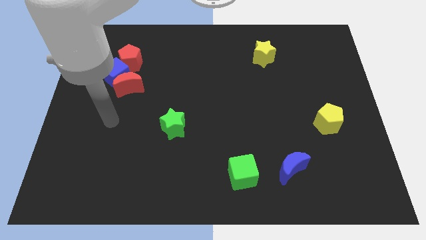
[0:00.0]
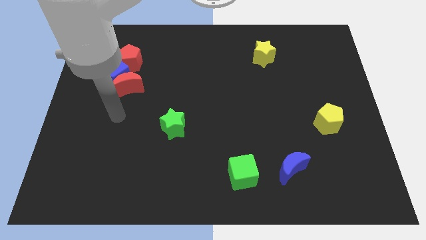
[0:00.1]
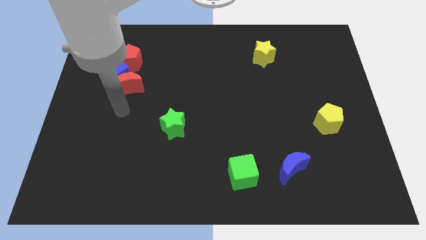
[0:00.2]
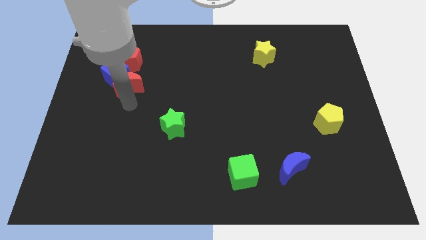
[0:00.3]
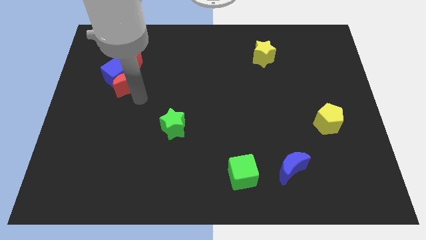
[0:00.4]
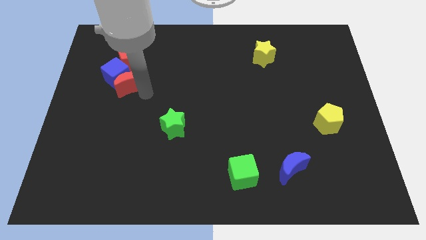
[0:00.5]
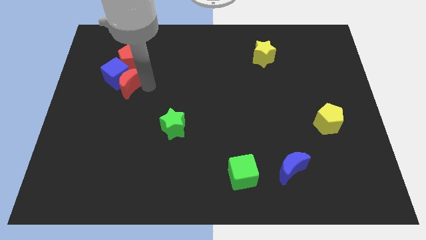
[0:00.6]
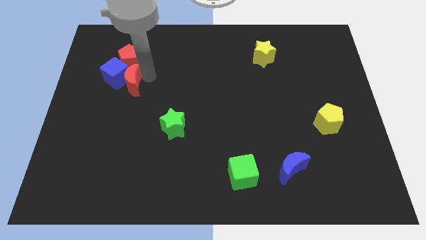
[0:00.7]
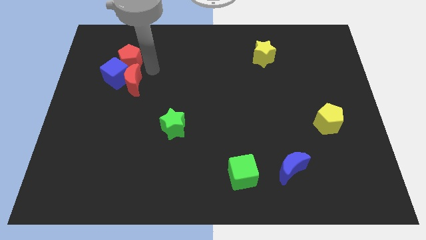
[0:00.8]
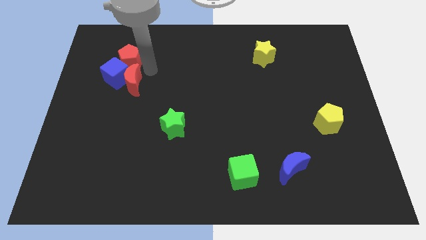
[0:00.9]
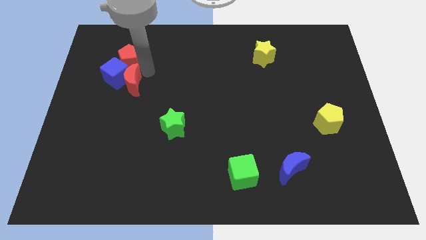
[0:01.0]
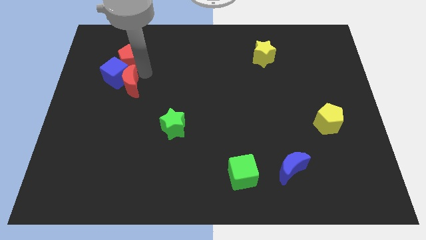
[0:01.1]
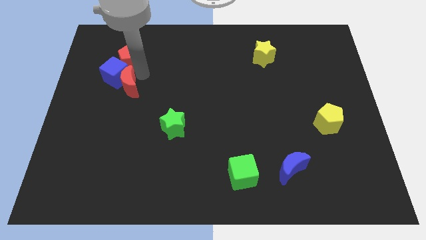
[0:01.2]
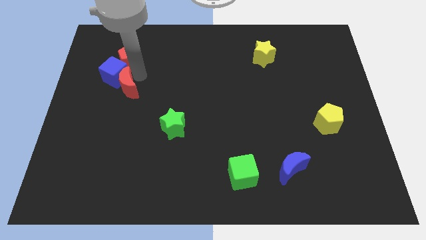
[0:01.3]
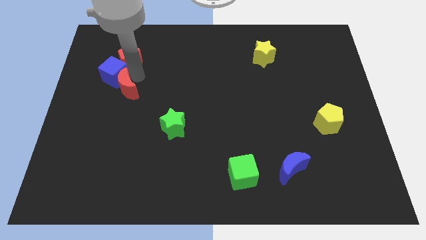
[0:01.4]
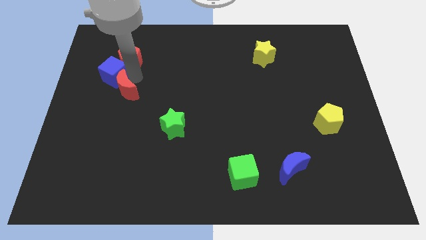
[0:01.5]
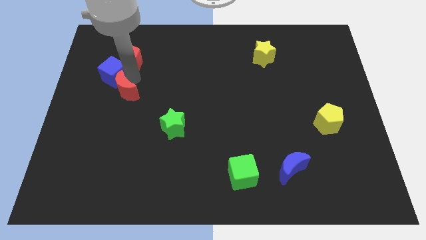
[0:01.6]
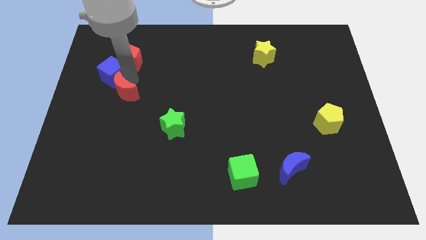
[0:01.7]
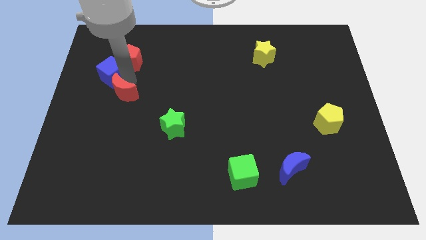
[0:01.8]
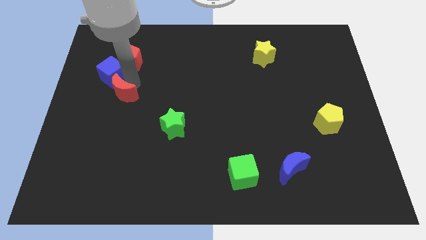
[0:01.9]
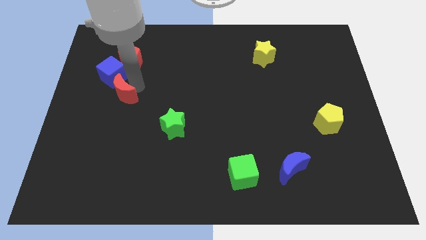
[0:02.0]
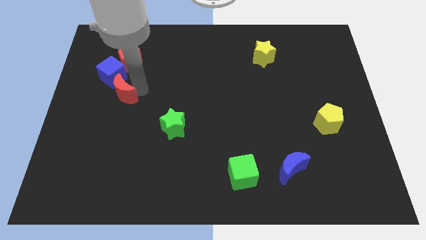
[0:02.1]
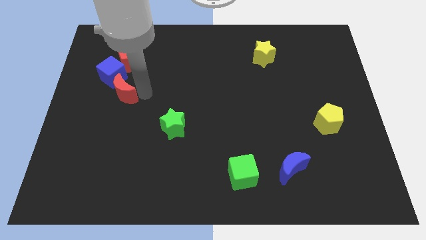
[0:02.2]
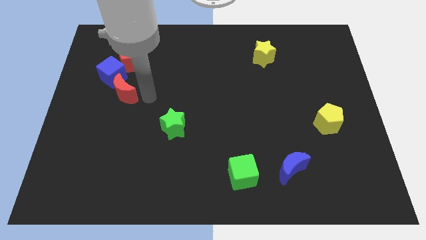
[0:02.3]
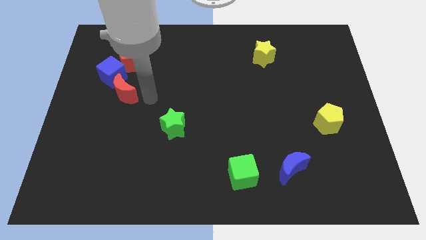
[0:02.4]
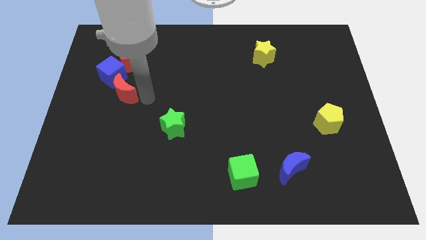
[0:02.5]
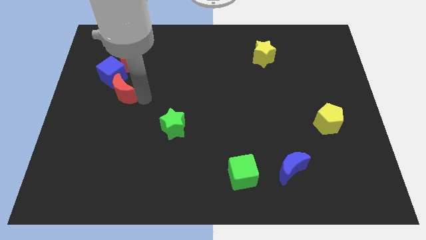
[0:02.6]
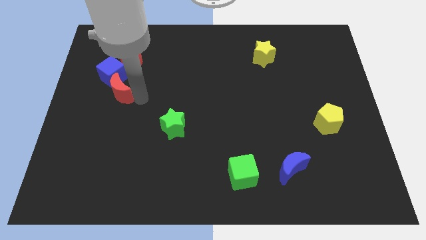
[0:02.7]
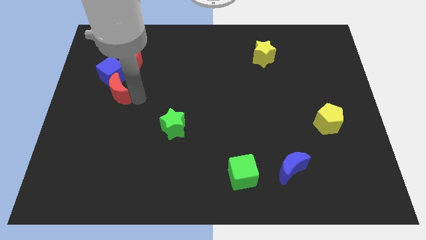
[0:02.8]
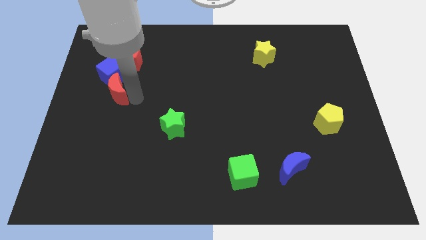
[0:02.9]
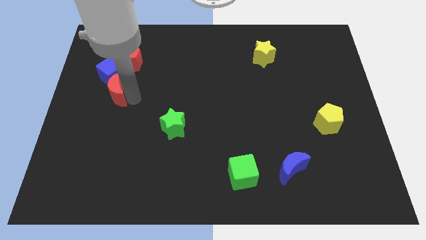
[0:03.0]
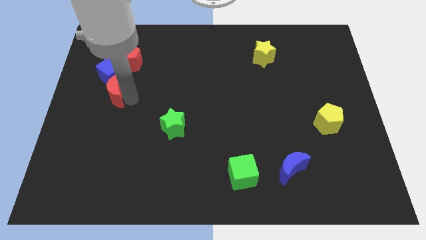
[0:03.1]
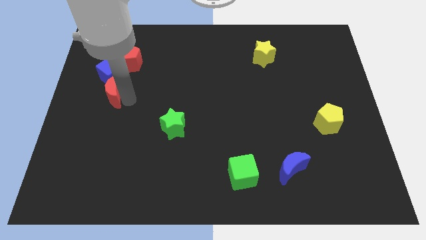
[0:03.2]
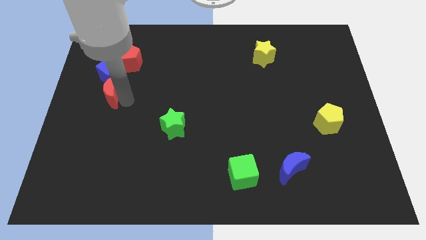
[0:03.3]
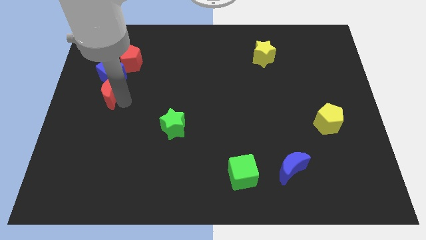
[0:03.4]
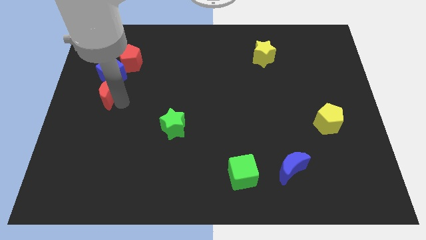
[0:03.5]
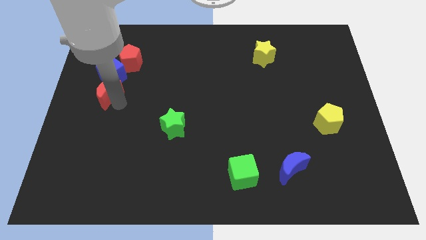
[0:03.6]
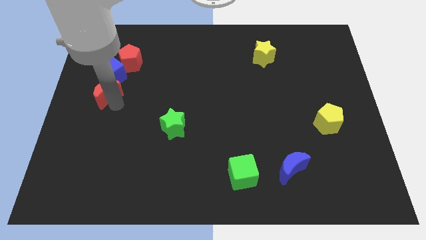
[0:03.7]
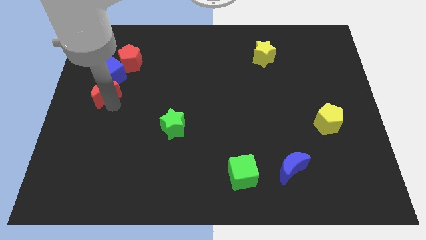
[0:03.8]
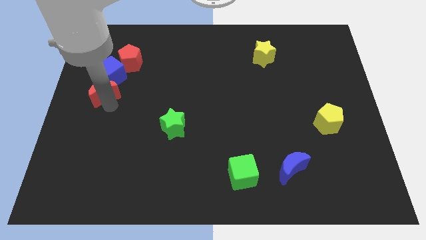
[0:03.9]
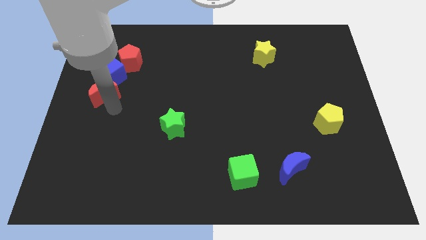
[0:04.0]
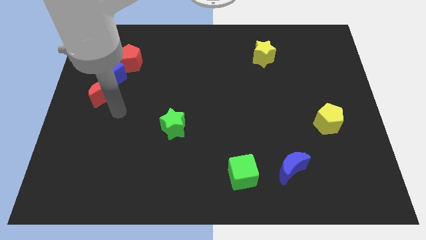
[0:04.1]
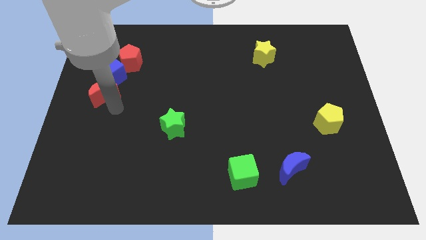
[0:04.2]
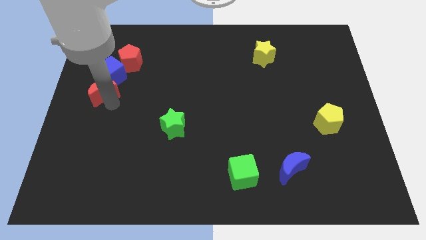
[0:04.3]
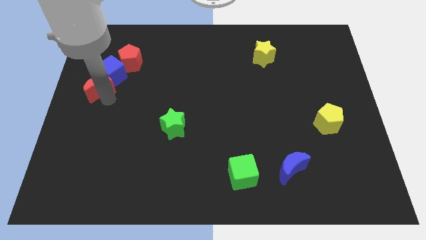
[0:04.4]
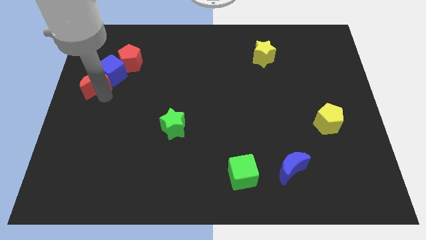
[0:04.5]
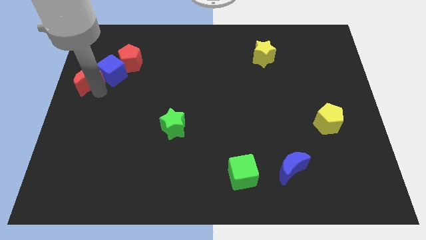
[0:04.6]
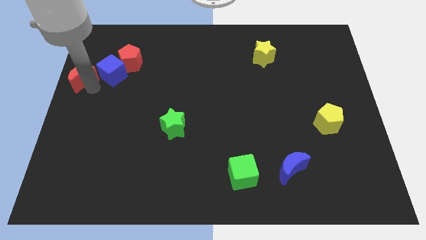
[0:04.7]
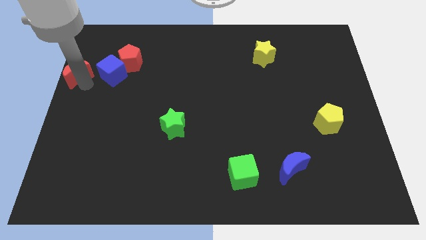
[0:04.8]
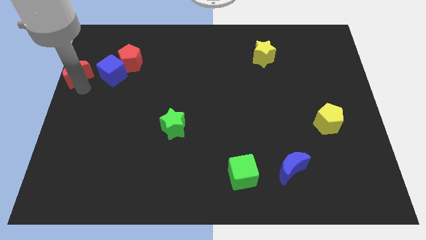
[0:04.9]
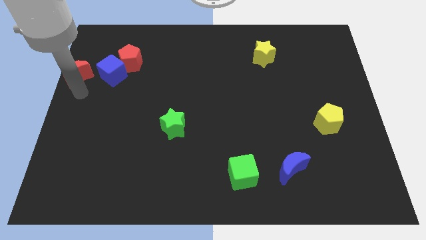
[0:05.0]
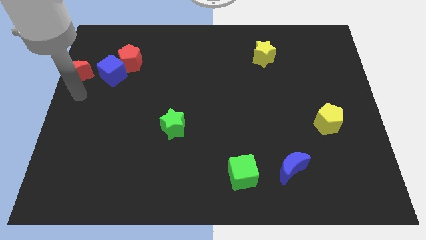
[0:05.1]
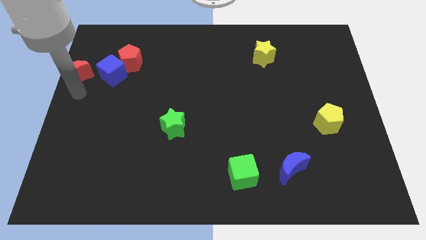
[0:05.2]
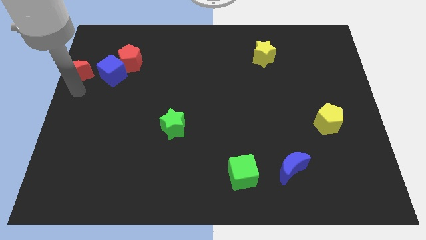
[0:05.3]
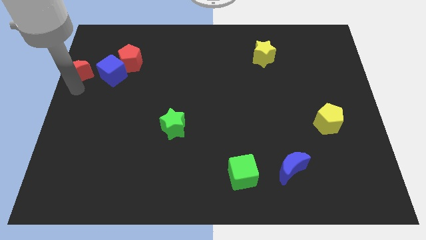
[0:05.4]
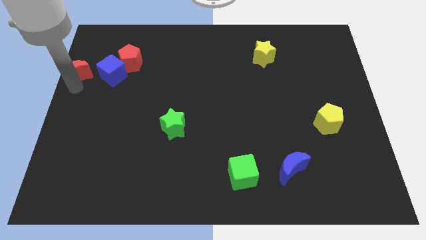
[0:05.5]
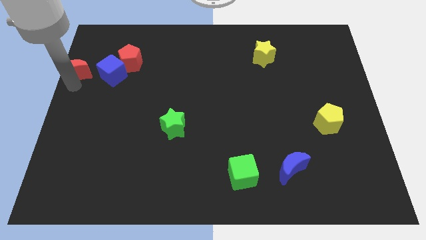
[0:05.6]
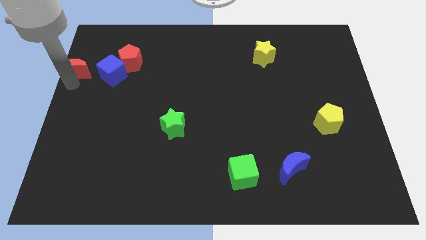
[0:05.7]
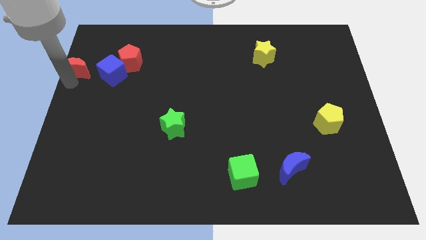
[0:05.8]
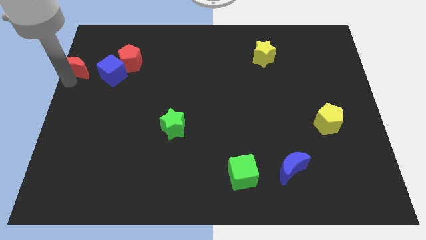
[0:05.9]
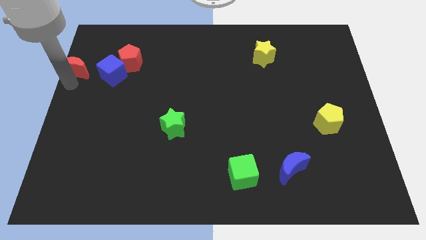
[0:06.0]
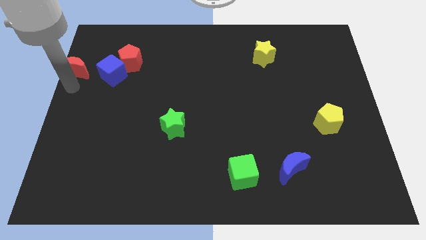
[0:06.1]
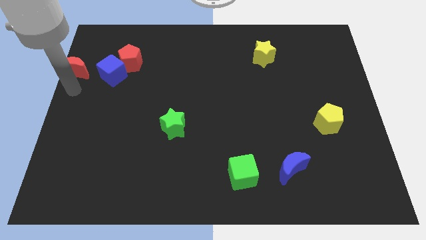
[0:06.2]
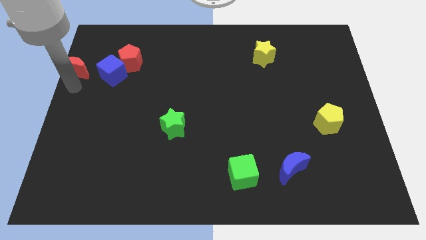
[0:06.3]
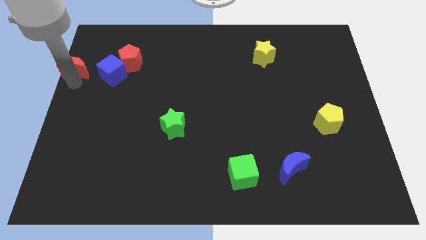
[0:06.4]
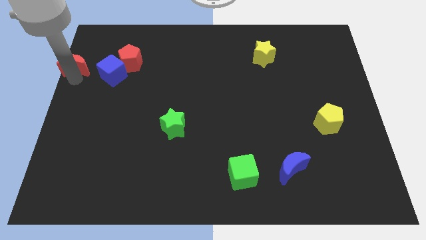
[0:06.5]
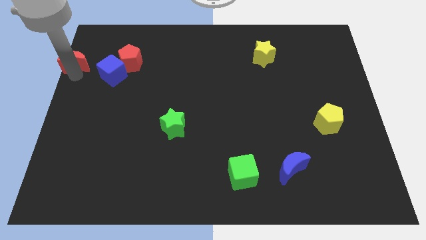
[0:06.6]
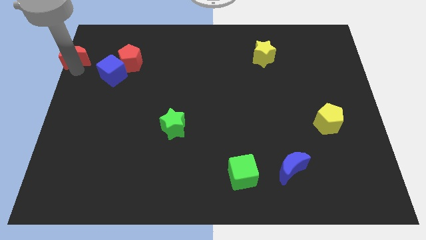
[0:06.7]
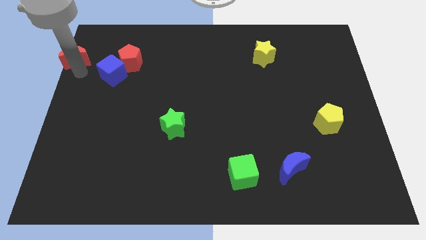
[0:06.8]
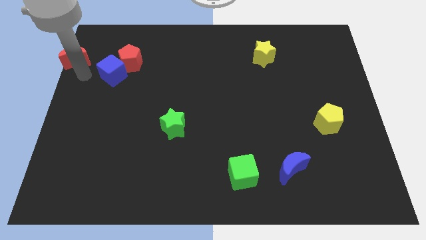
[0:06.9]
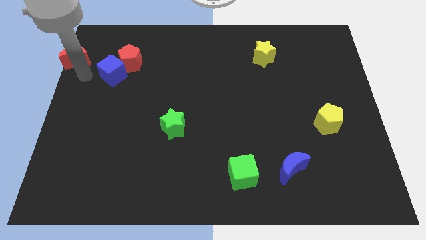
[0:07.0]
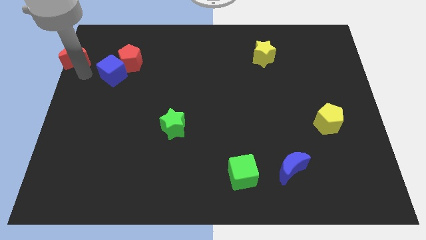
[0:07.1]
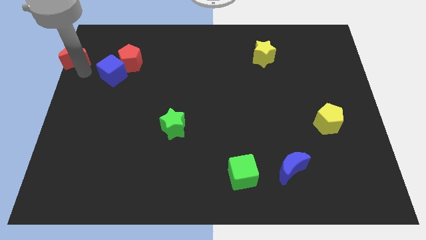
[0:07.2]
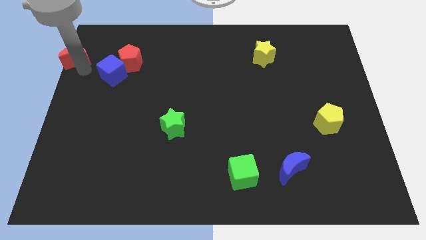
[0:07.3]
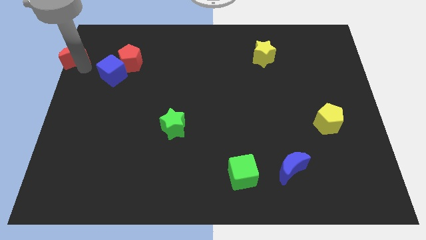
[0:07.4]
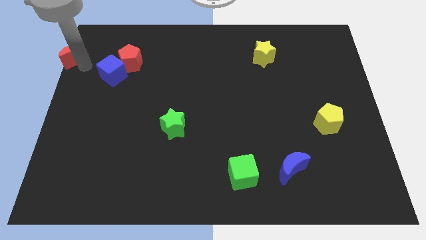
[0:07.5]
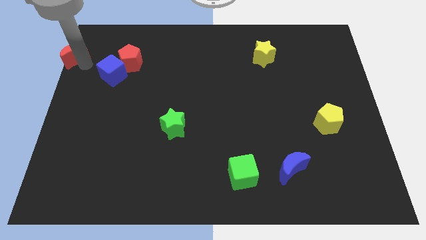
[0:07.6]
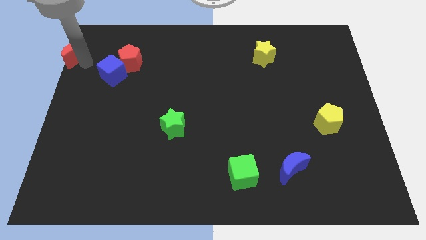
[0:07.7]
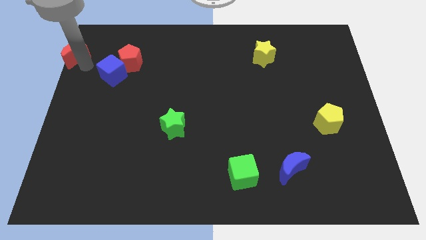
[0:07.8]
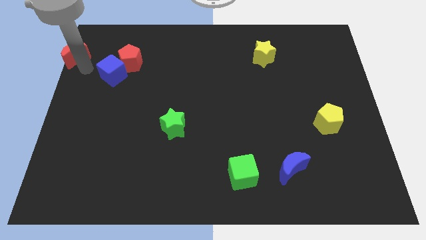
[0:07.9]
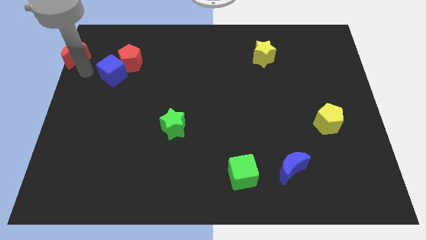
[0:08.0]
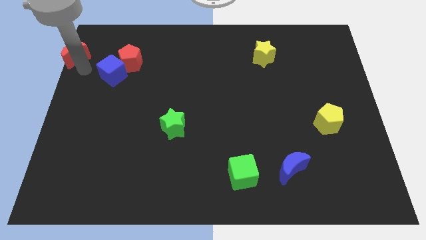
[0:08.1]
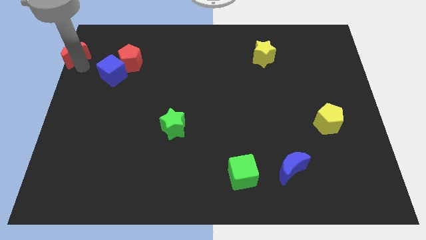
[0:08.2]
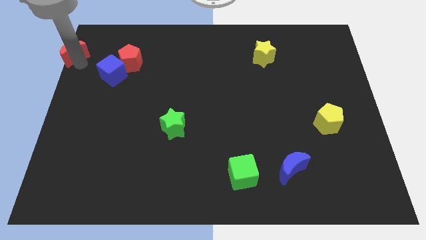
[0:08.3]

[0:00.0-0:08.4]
put the red moon to the top left of the board
